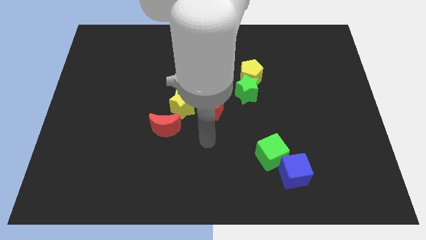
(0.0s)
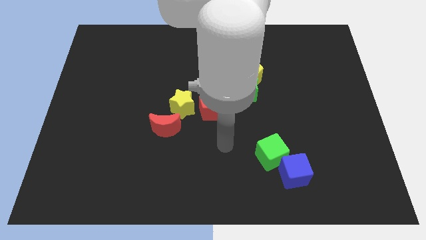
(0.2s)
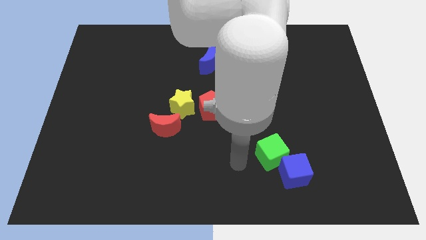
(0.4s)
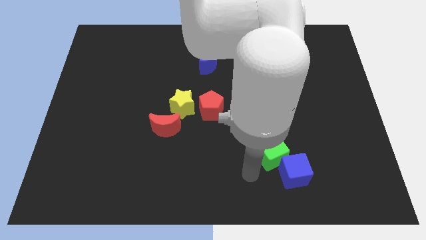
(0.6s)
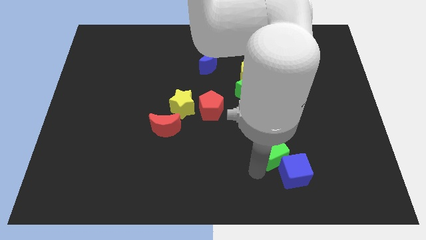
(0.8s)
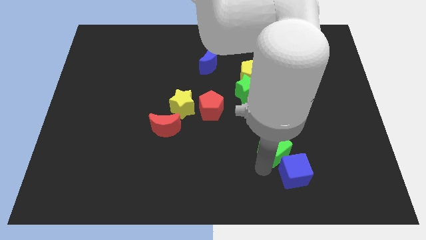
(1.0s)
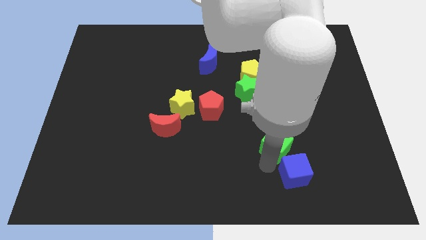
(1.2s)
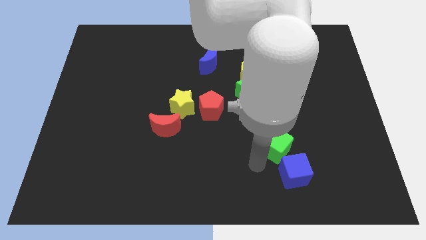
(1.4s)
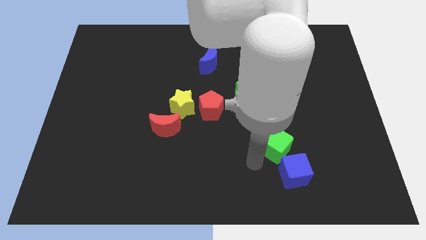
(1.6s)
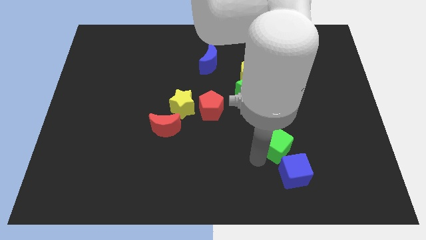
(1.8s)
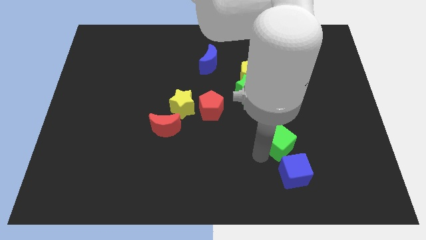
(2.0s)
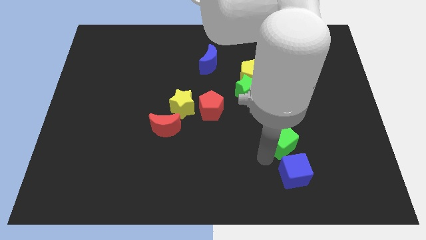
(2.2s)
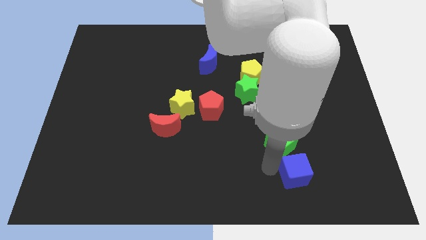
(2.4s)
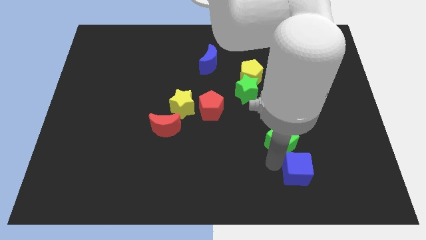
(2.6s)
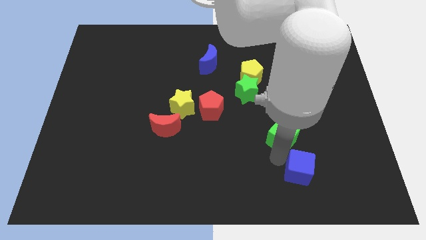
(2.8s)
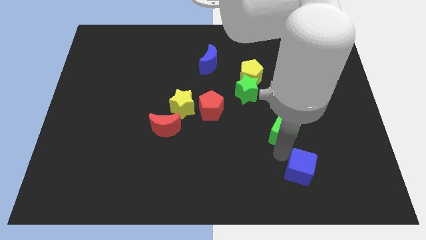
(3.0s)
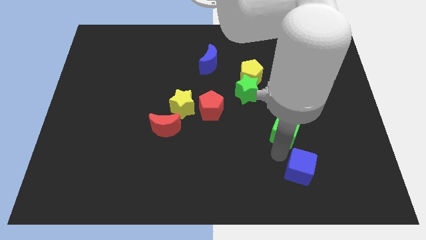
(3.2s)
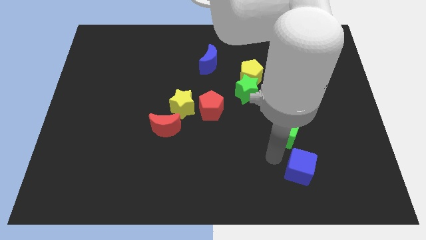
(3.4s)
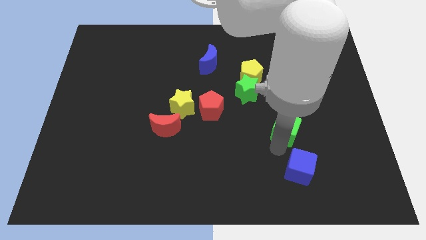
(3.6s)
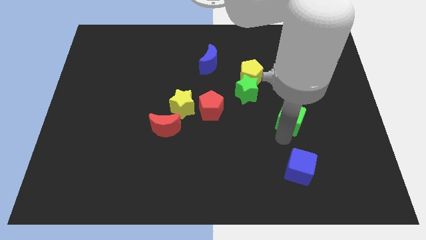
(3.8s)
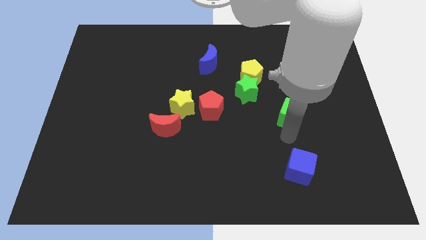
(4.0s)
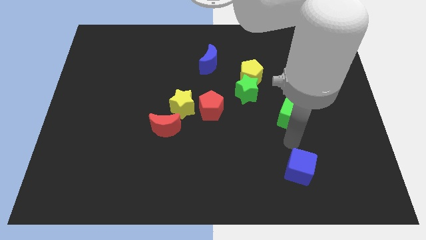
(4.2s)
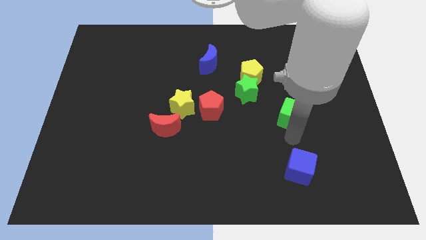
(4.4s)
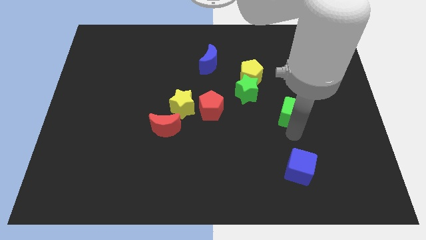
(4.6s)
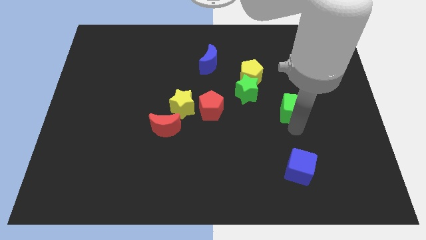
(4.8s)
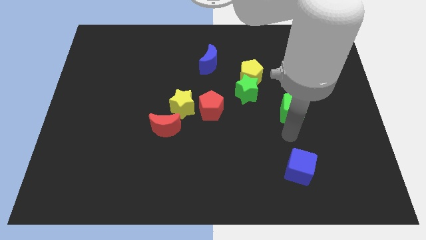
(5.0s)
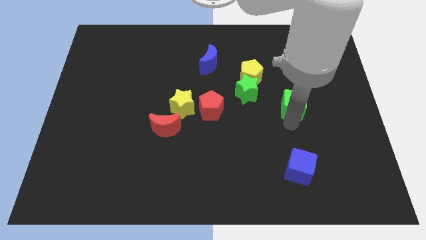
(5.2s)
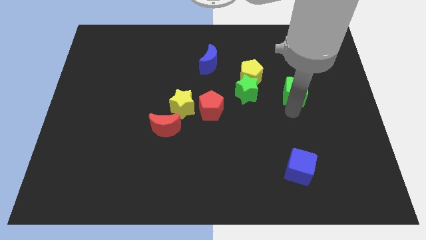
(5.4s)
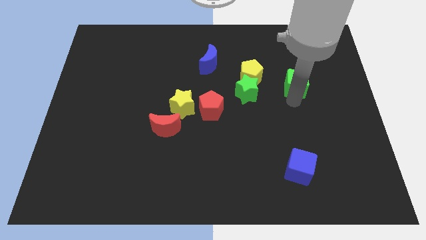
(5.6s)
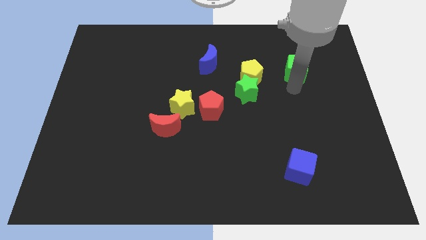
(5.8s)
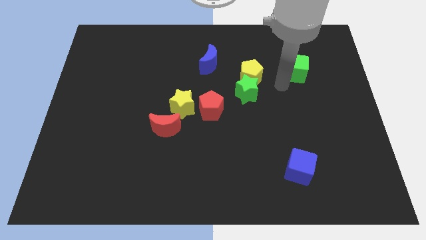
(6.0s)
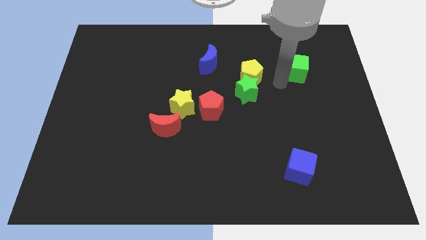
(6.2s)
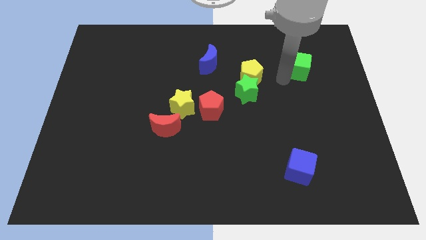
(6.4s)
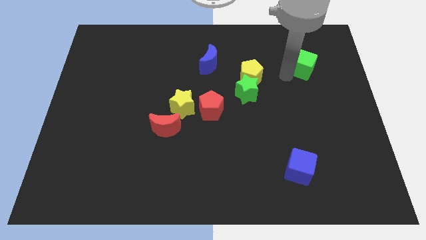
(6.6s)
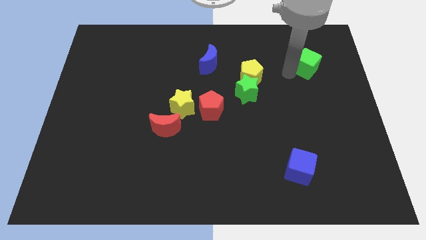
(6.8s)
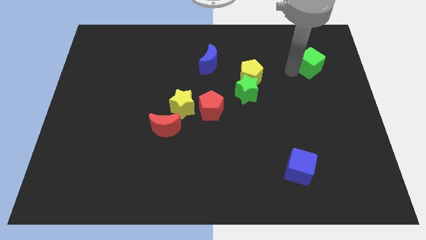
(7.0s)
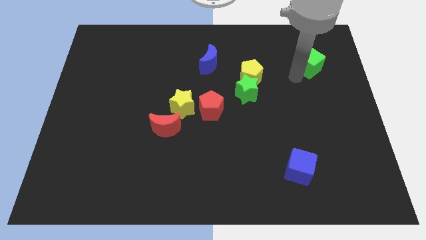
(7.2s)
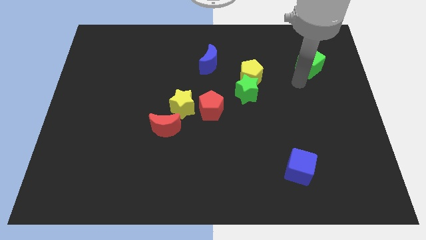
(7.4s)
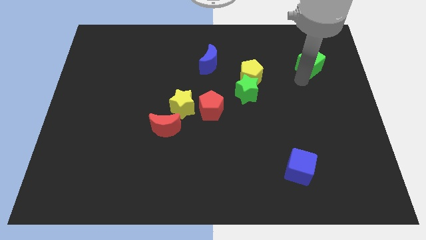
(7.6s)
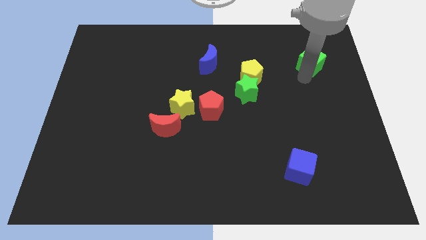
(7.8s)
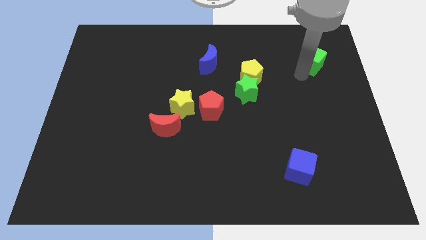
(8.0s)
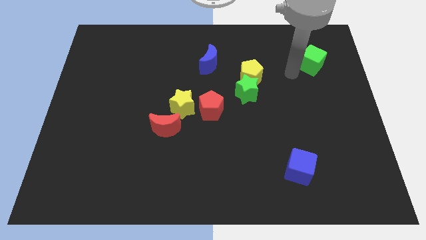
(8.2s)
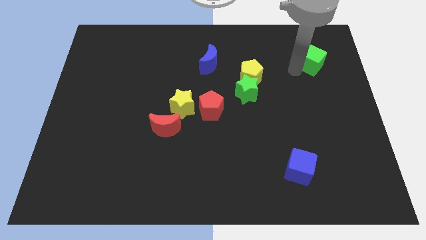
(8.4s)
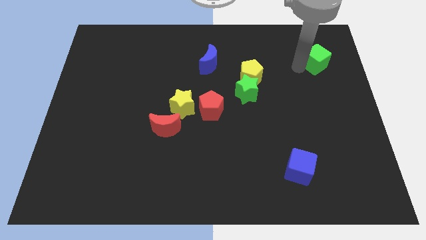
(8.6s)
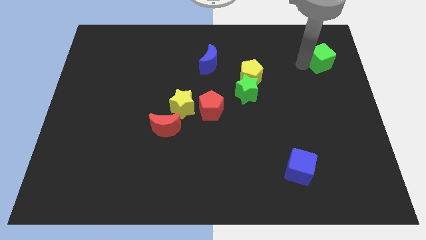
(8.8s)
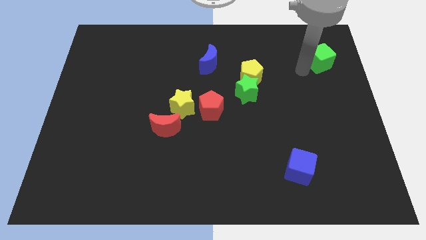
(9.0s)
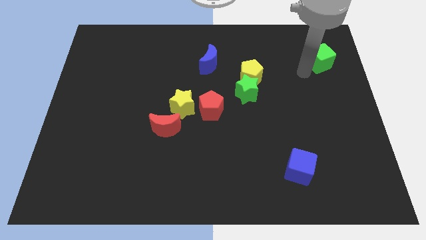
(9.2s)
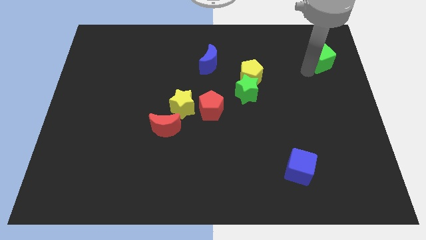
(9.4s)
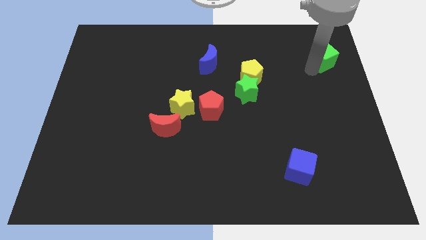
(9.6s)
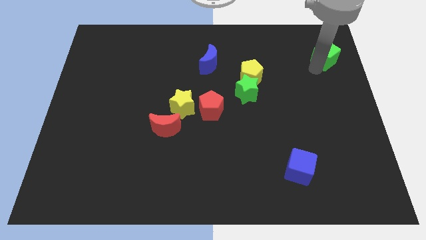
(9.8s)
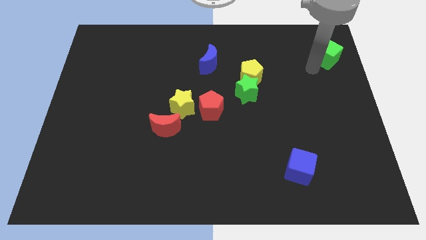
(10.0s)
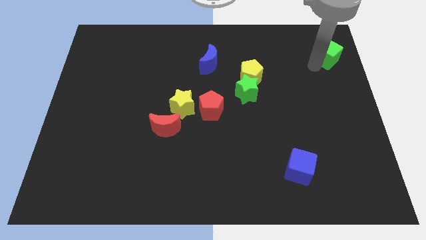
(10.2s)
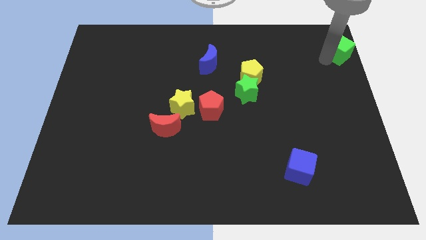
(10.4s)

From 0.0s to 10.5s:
slide the green cube to the top right

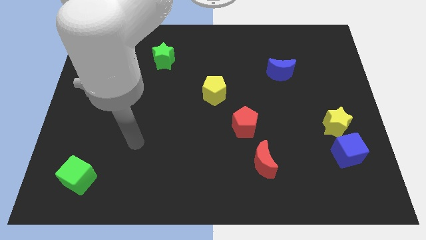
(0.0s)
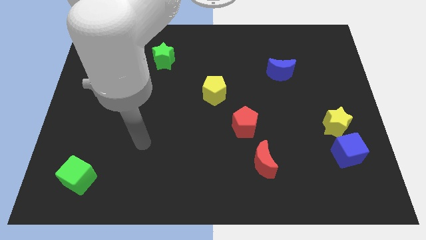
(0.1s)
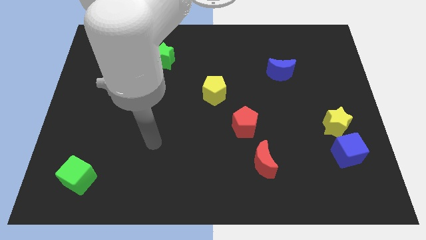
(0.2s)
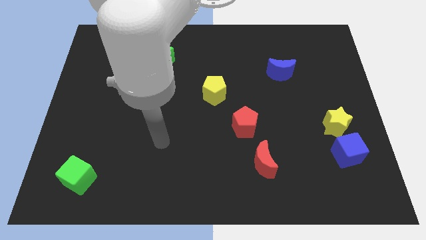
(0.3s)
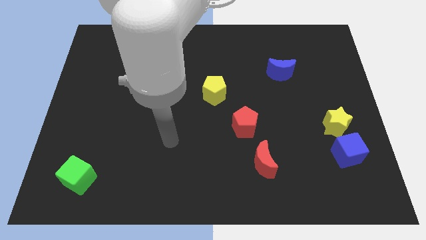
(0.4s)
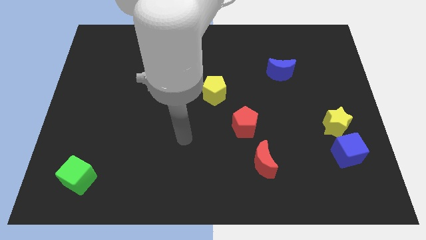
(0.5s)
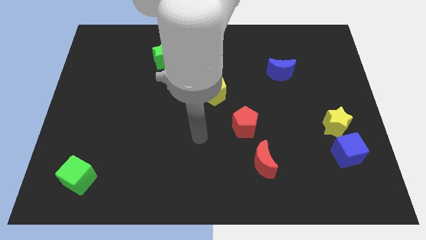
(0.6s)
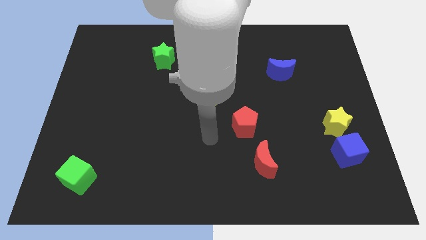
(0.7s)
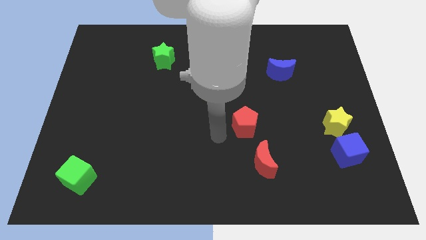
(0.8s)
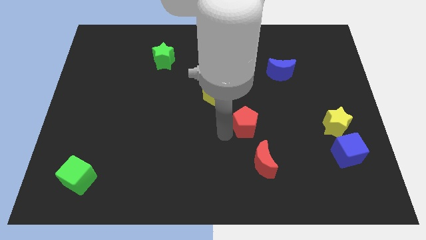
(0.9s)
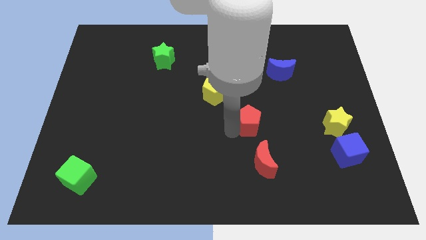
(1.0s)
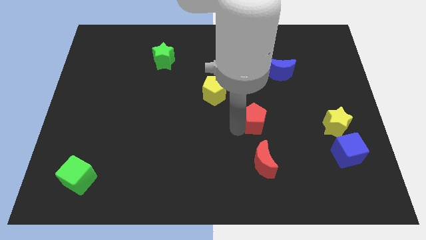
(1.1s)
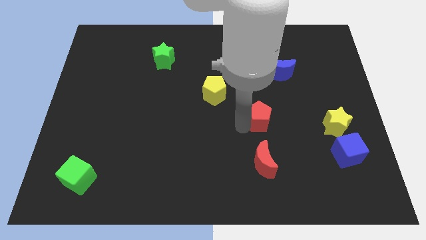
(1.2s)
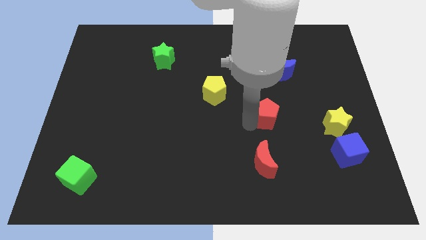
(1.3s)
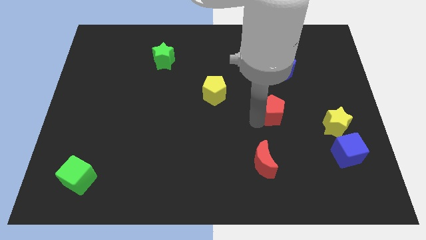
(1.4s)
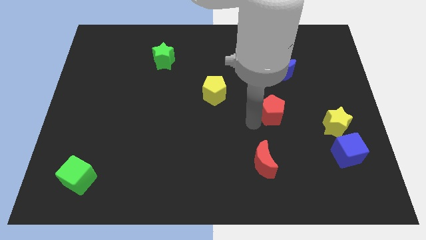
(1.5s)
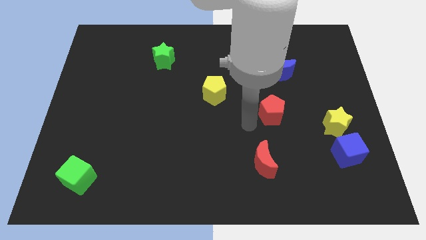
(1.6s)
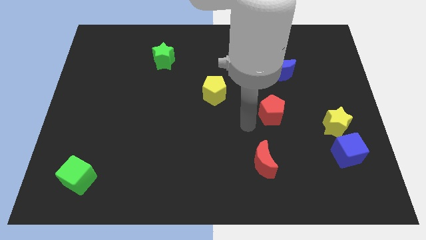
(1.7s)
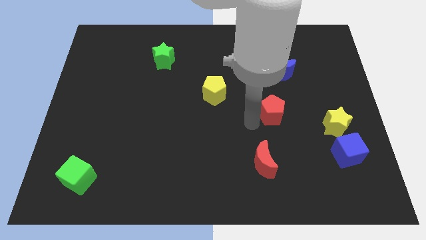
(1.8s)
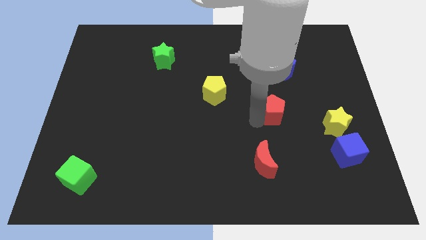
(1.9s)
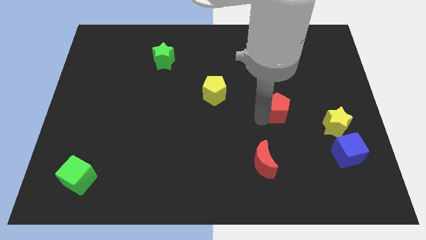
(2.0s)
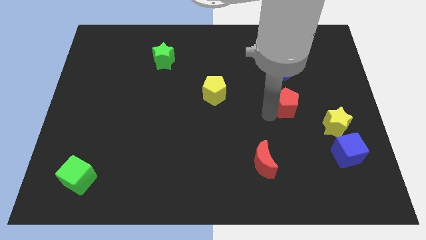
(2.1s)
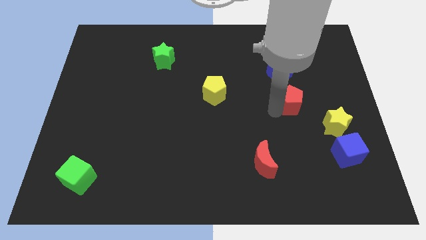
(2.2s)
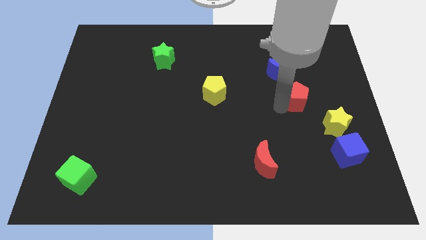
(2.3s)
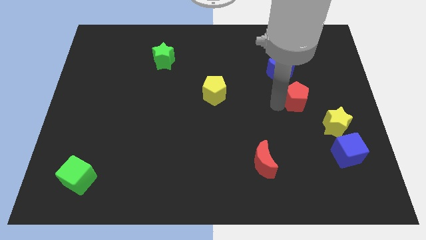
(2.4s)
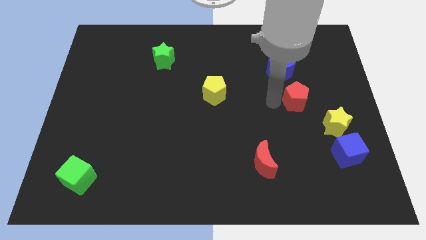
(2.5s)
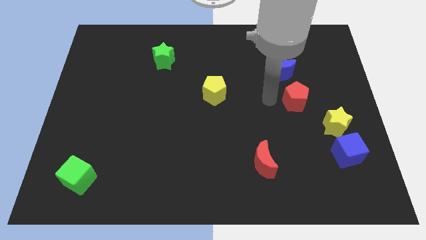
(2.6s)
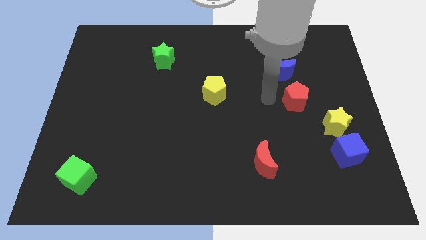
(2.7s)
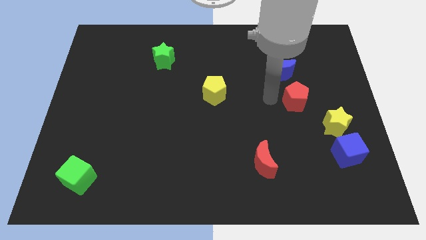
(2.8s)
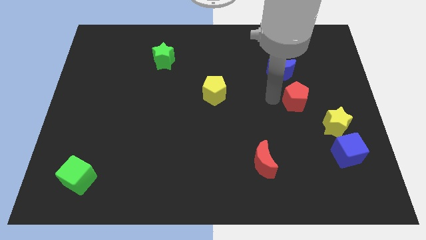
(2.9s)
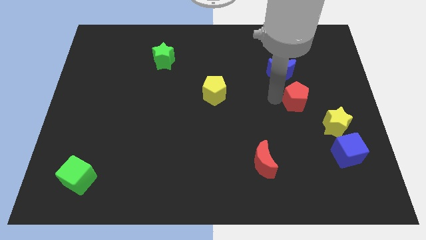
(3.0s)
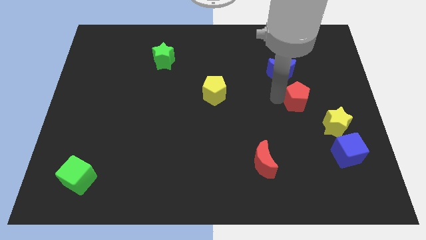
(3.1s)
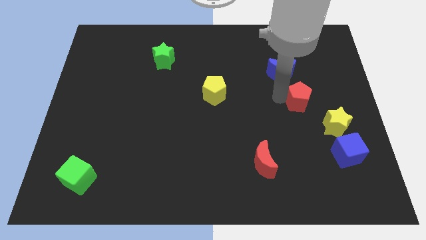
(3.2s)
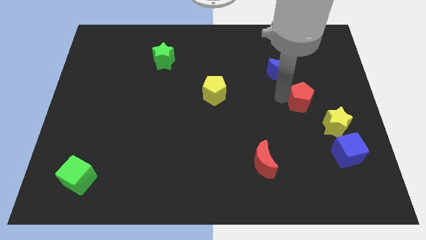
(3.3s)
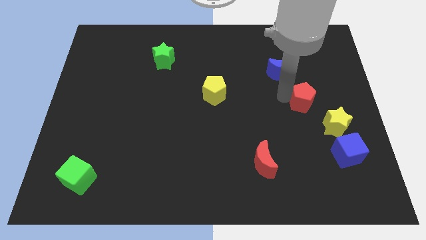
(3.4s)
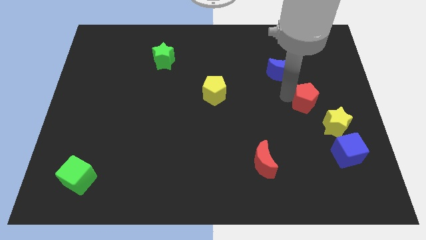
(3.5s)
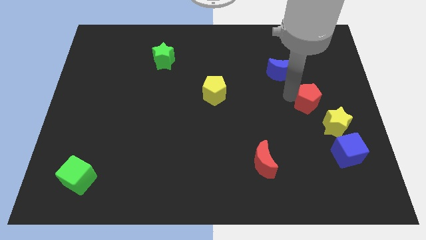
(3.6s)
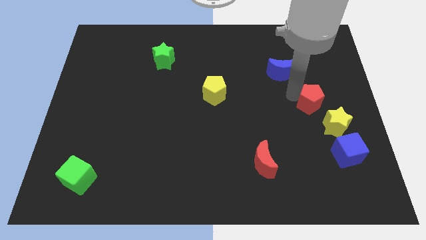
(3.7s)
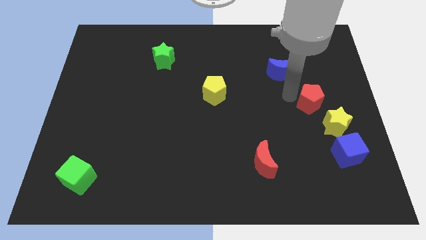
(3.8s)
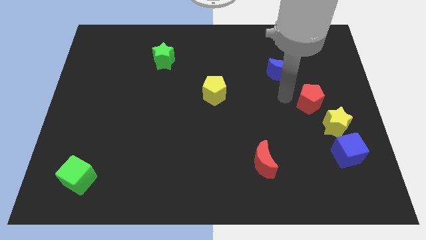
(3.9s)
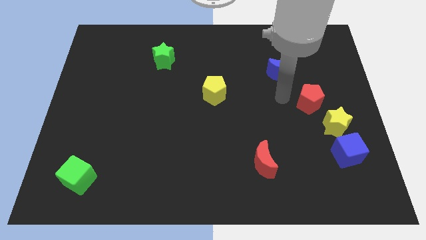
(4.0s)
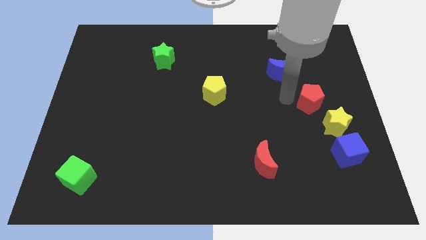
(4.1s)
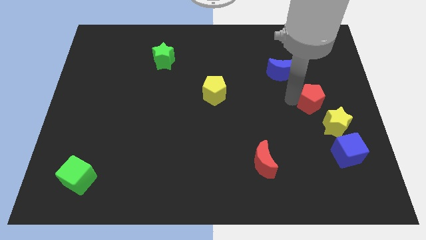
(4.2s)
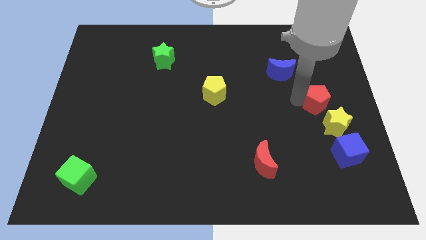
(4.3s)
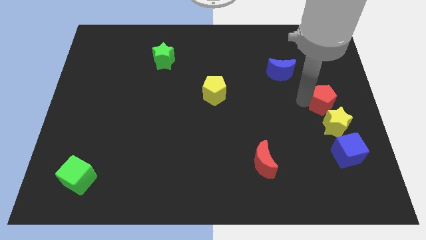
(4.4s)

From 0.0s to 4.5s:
move the red pentagon to the center right
